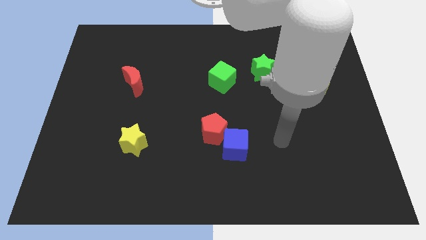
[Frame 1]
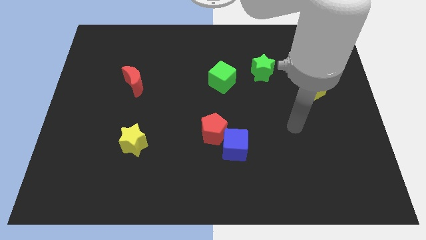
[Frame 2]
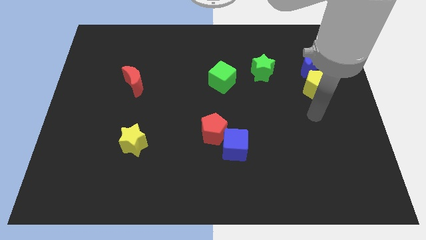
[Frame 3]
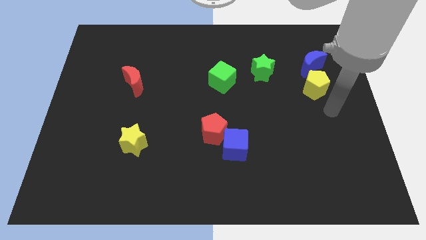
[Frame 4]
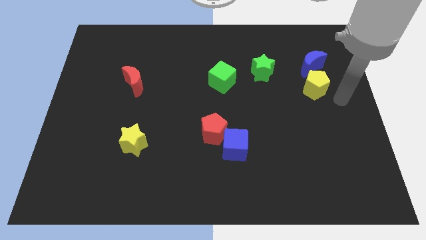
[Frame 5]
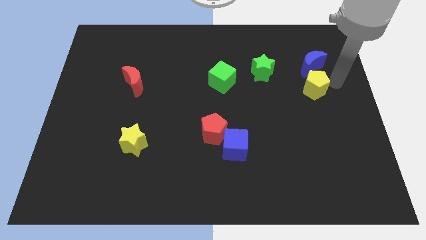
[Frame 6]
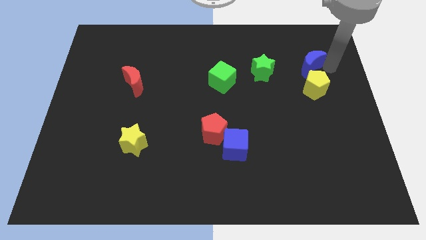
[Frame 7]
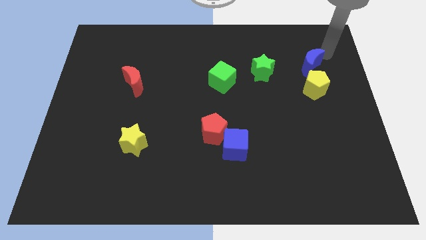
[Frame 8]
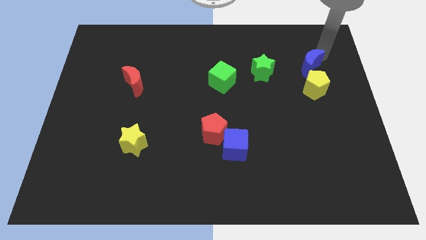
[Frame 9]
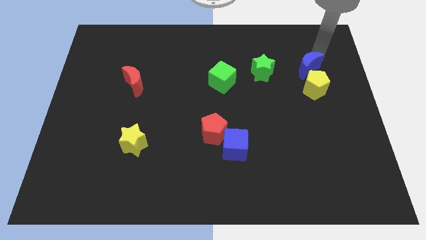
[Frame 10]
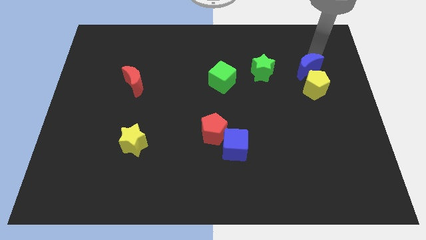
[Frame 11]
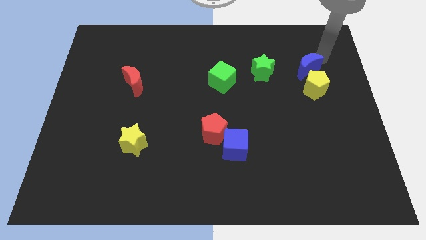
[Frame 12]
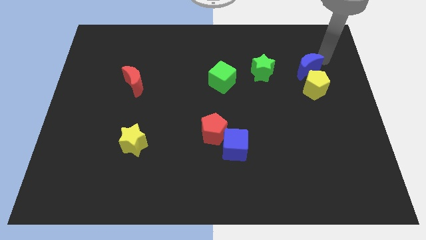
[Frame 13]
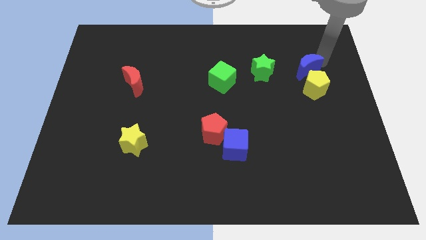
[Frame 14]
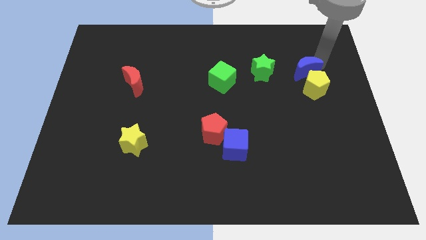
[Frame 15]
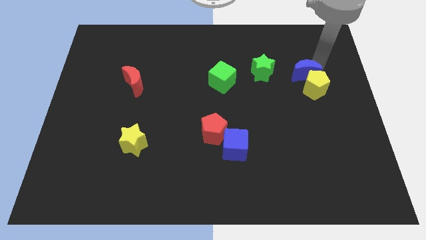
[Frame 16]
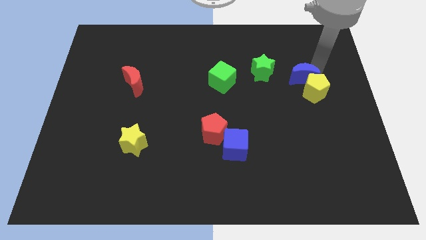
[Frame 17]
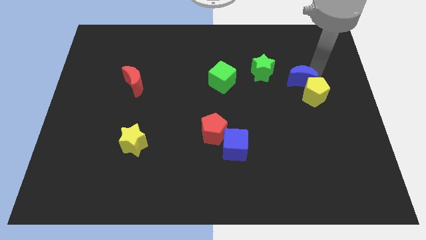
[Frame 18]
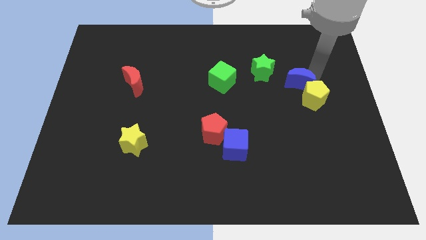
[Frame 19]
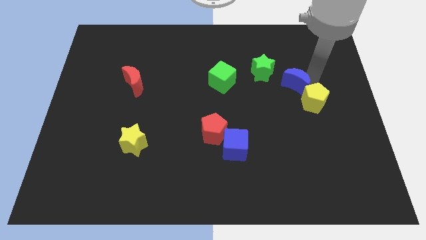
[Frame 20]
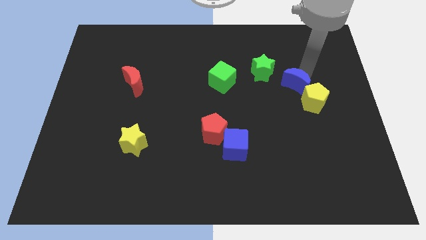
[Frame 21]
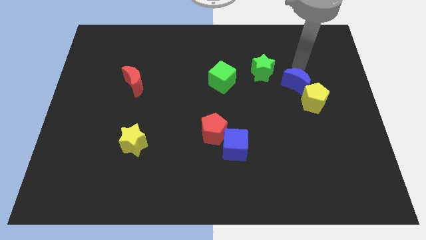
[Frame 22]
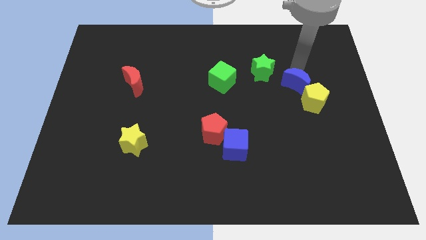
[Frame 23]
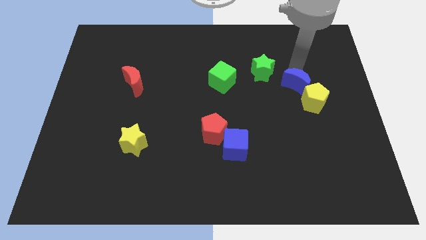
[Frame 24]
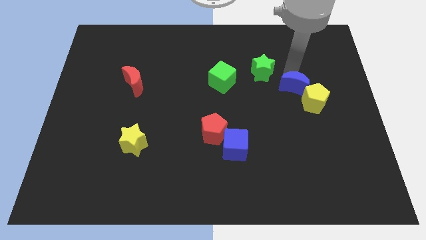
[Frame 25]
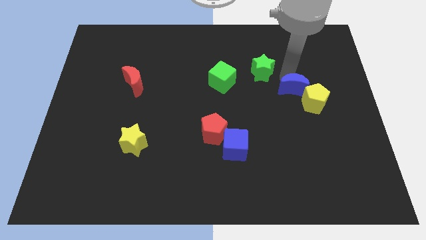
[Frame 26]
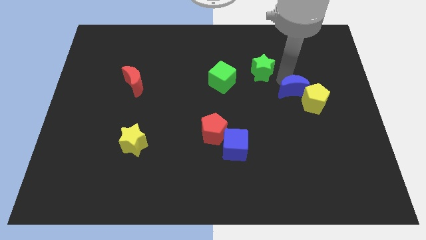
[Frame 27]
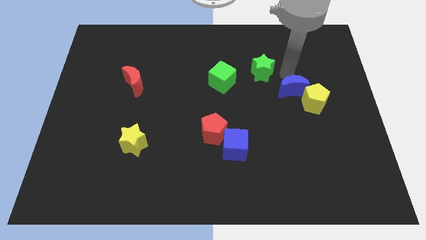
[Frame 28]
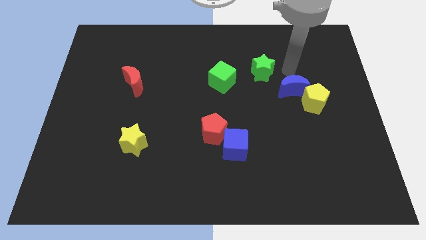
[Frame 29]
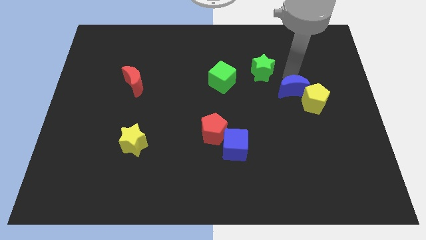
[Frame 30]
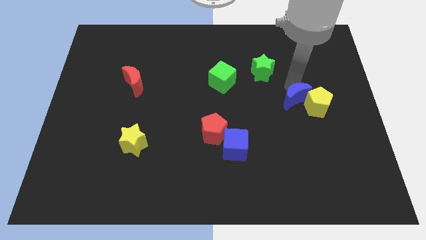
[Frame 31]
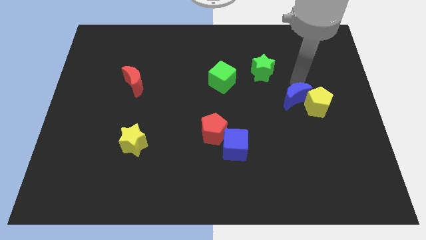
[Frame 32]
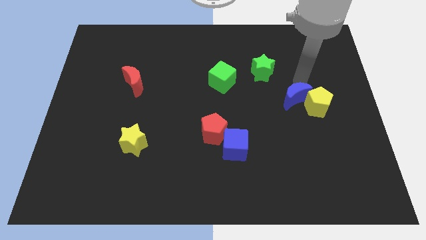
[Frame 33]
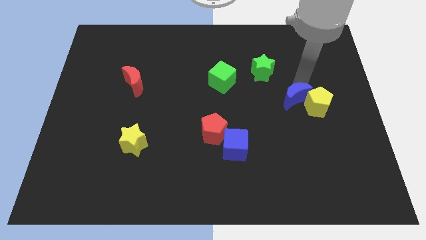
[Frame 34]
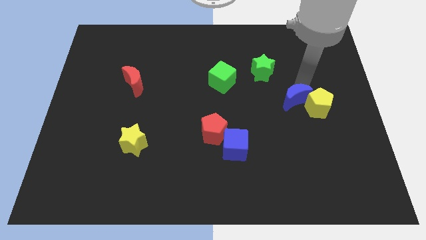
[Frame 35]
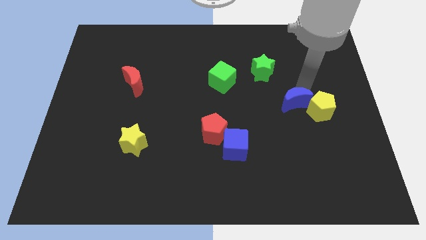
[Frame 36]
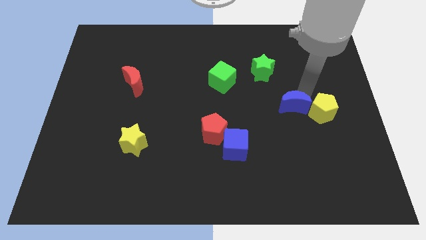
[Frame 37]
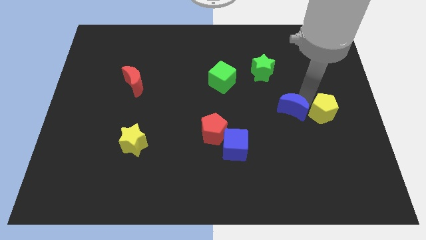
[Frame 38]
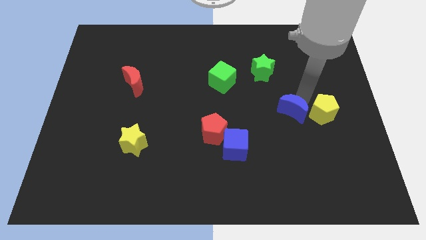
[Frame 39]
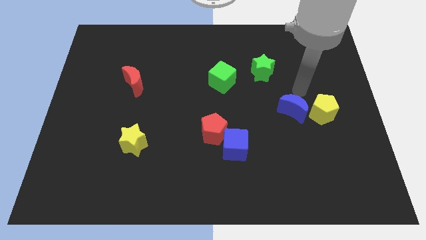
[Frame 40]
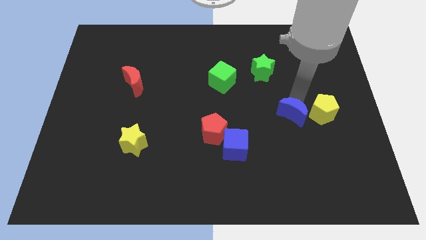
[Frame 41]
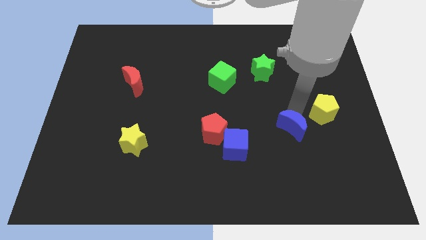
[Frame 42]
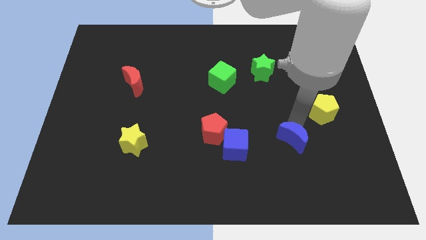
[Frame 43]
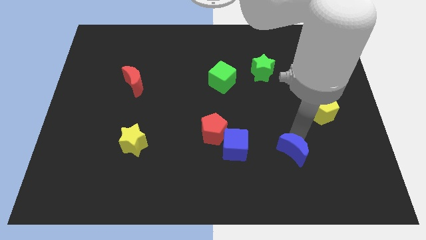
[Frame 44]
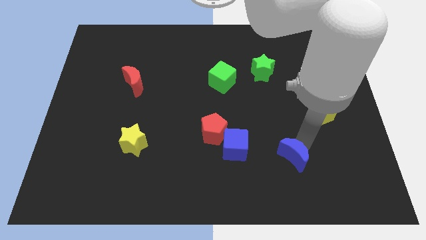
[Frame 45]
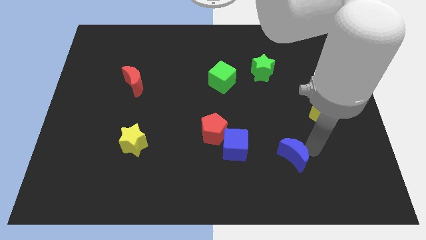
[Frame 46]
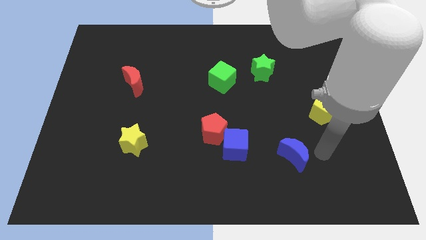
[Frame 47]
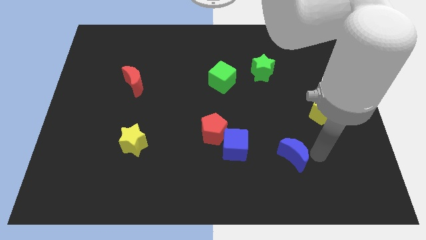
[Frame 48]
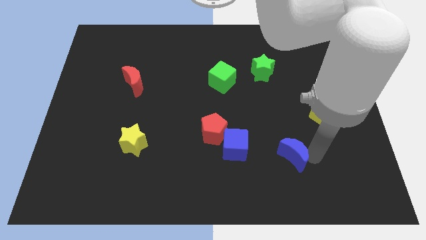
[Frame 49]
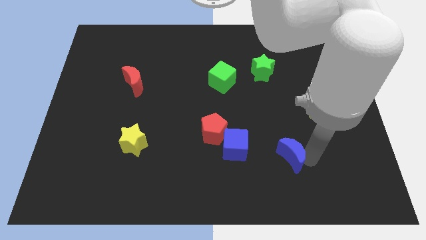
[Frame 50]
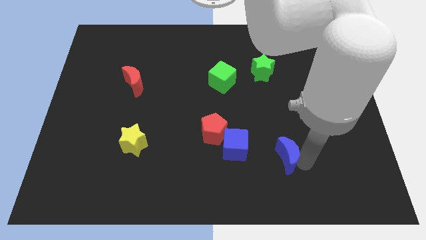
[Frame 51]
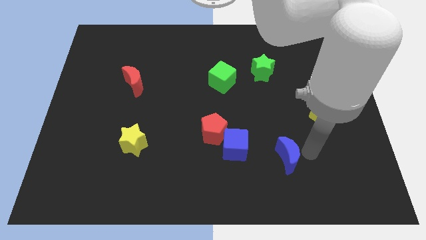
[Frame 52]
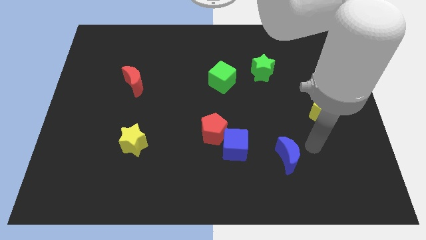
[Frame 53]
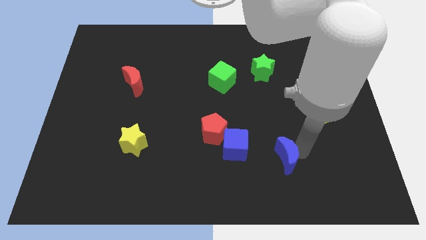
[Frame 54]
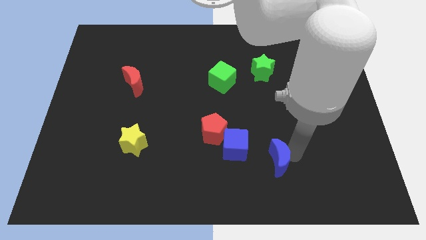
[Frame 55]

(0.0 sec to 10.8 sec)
move the blue moon to the bottom right of the blue cube
